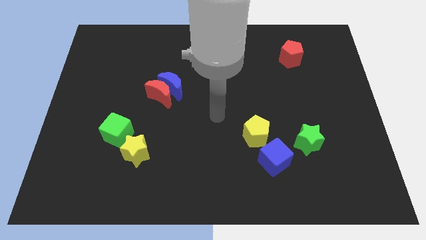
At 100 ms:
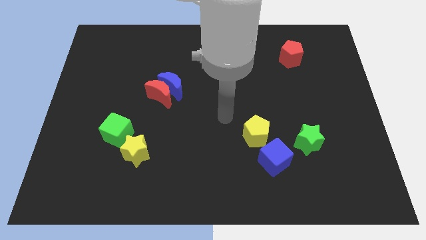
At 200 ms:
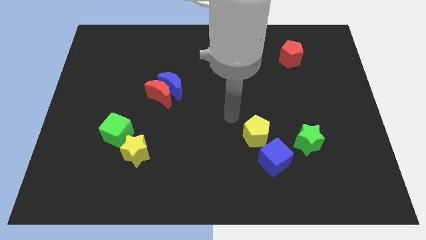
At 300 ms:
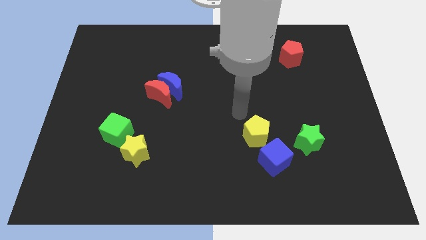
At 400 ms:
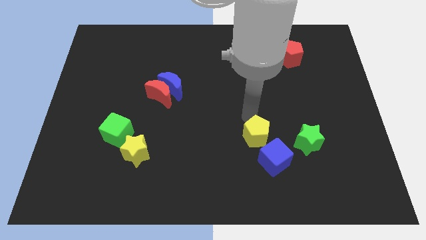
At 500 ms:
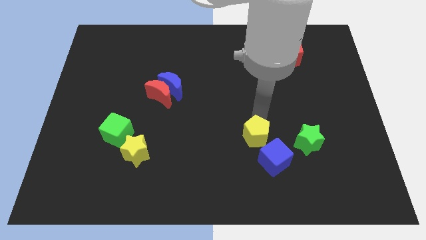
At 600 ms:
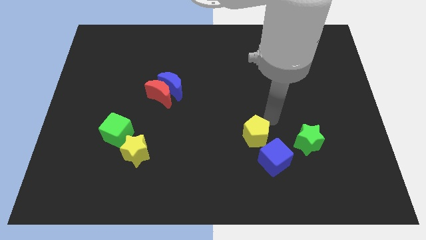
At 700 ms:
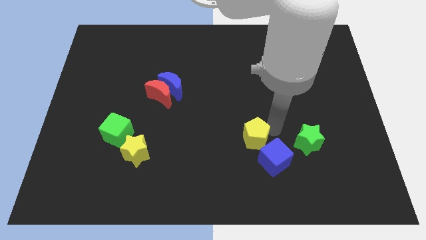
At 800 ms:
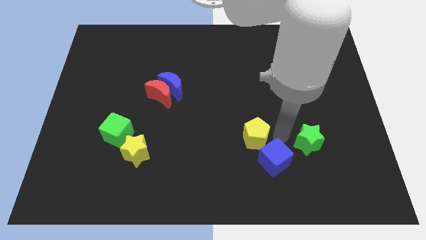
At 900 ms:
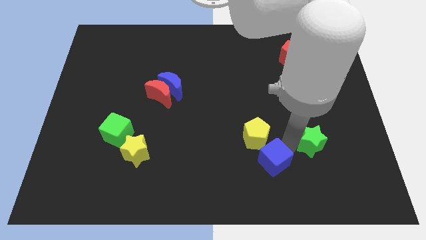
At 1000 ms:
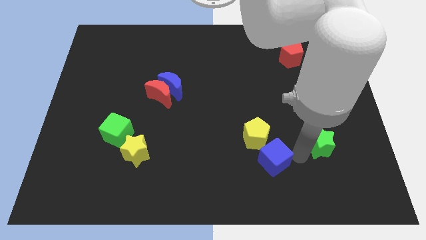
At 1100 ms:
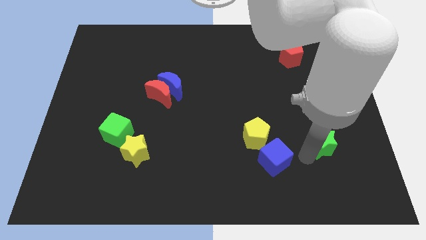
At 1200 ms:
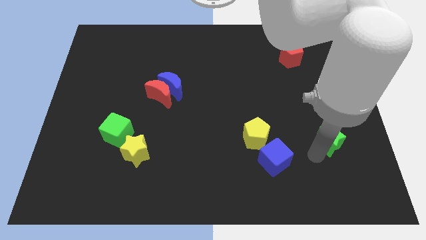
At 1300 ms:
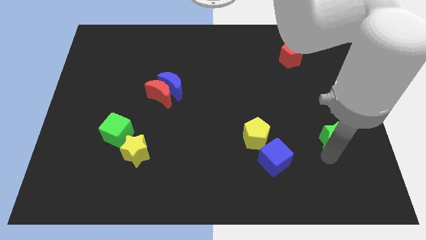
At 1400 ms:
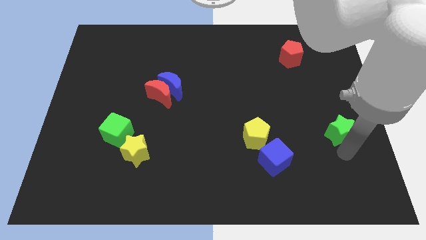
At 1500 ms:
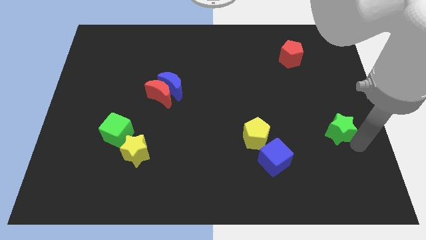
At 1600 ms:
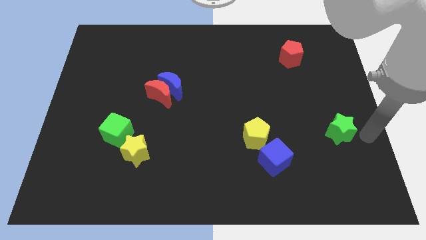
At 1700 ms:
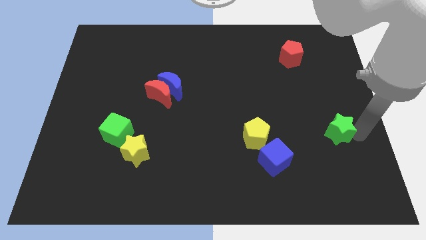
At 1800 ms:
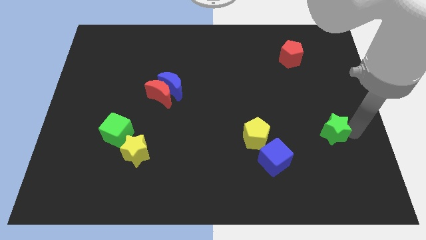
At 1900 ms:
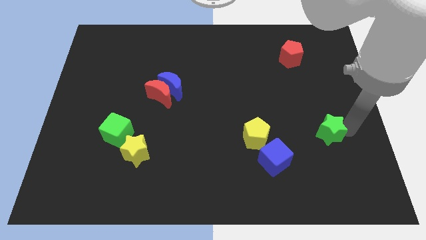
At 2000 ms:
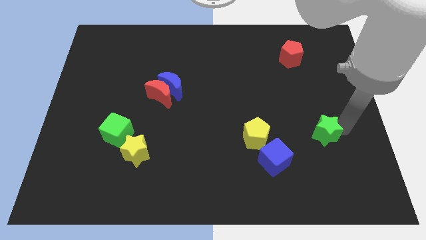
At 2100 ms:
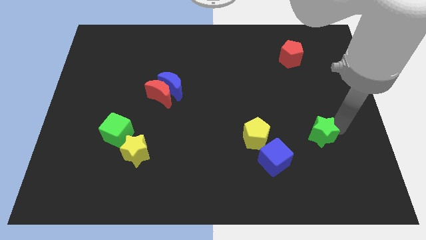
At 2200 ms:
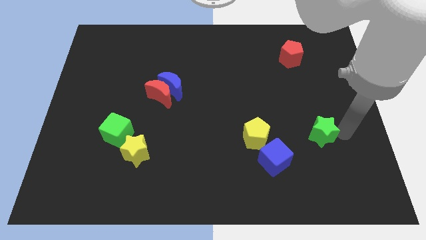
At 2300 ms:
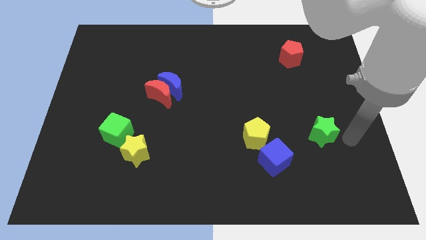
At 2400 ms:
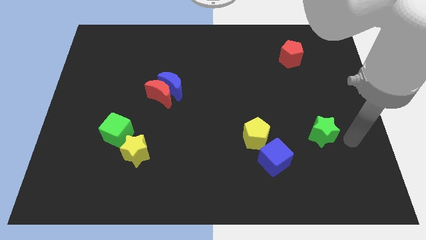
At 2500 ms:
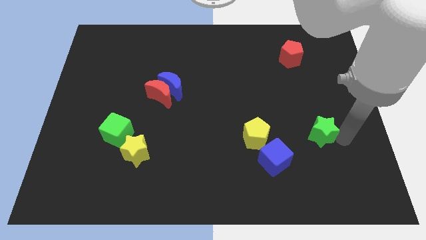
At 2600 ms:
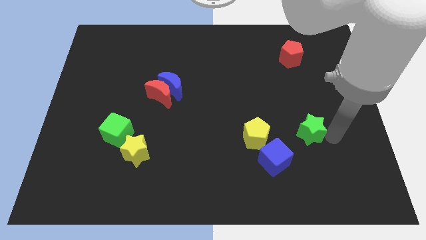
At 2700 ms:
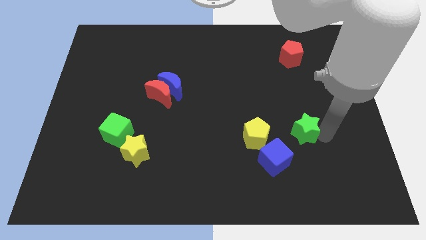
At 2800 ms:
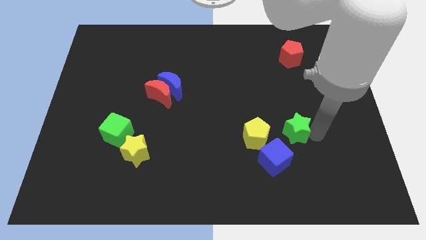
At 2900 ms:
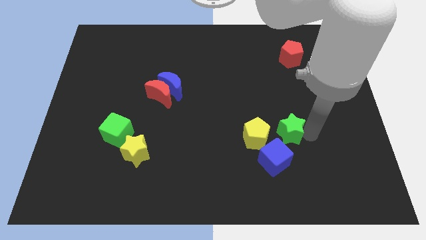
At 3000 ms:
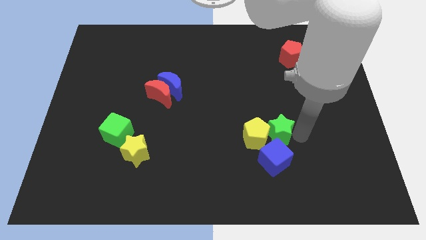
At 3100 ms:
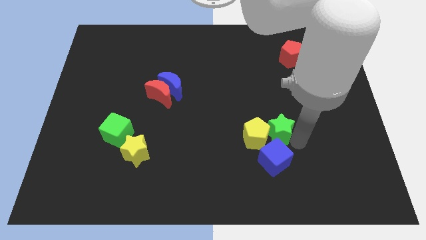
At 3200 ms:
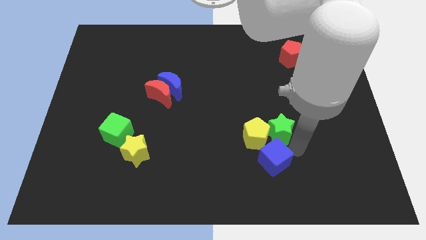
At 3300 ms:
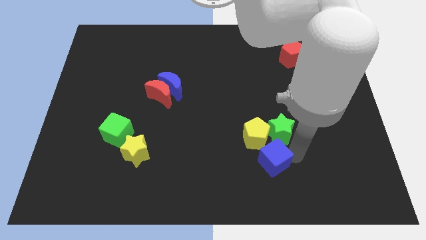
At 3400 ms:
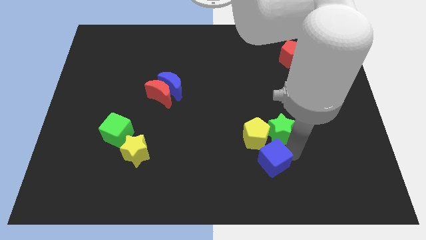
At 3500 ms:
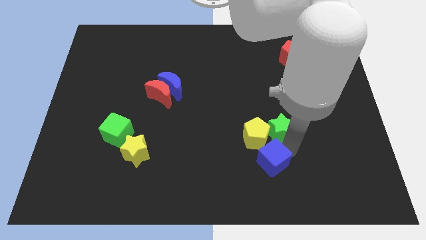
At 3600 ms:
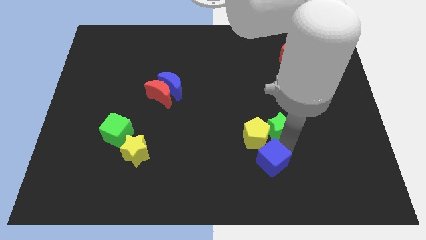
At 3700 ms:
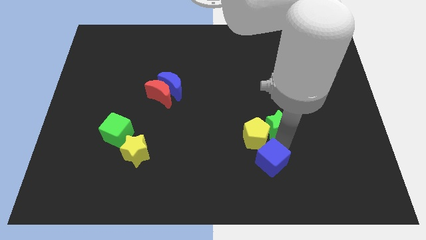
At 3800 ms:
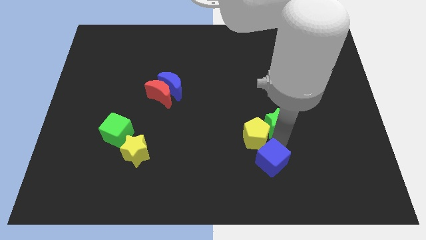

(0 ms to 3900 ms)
move the green star diagonally up and left slightly

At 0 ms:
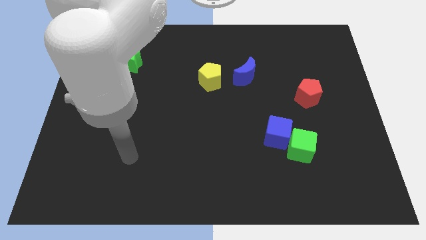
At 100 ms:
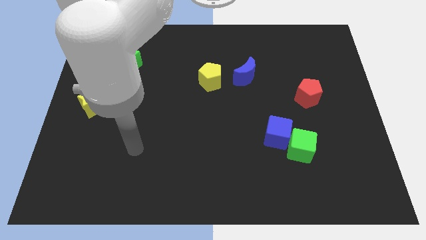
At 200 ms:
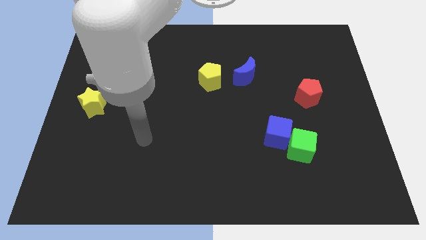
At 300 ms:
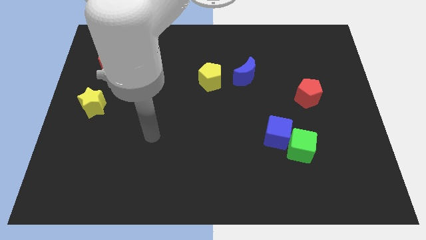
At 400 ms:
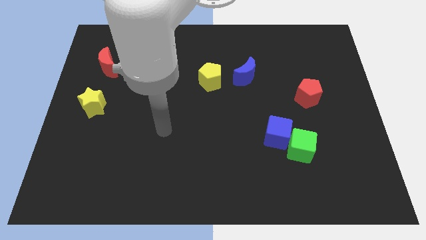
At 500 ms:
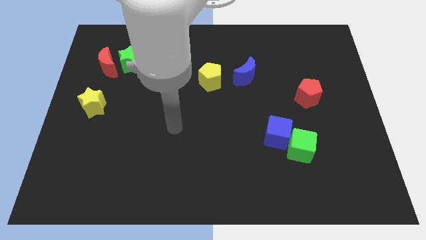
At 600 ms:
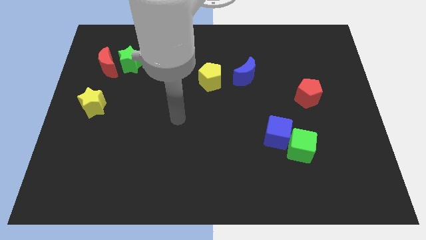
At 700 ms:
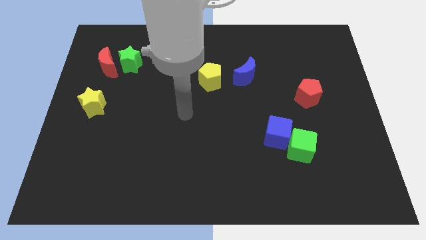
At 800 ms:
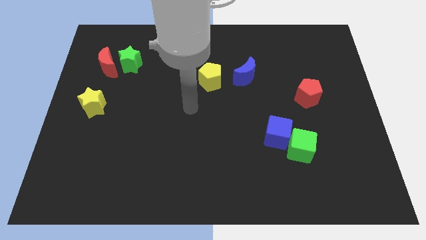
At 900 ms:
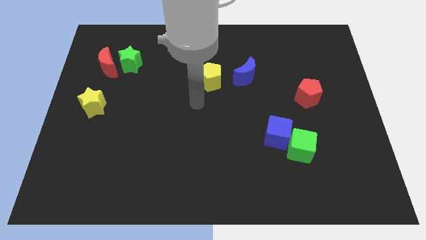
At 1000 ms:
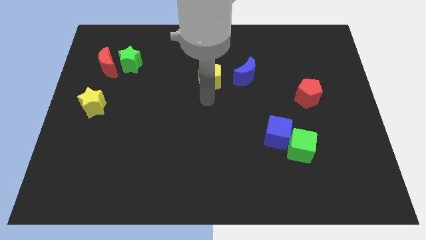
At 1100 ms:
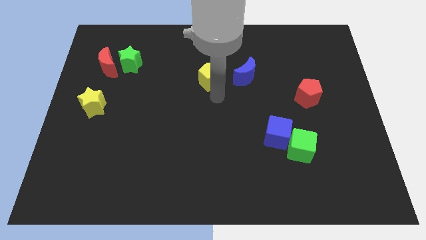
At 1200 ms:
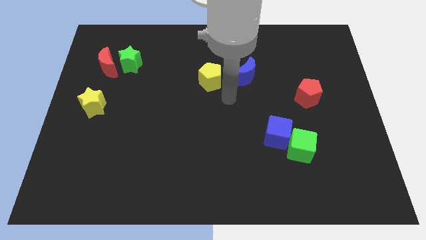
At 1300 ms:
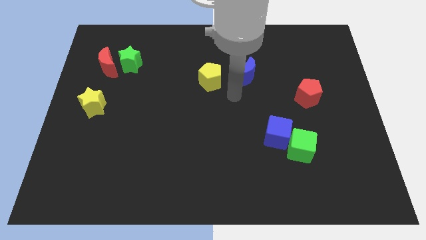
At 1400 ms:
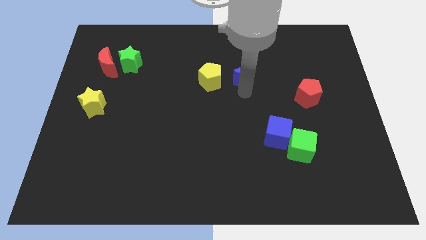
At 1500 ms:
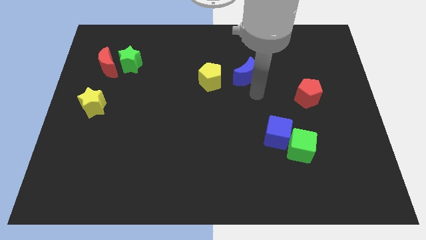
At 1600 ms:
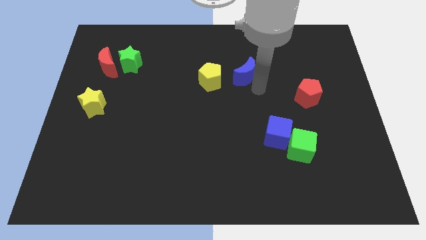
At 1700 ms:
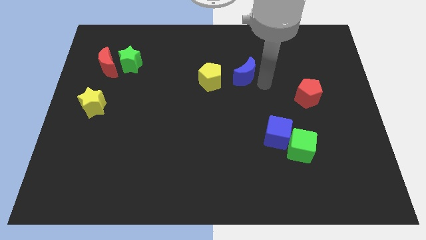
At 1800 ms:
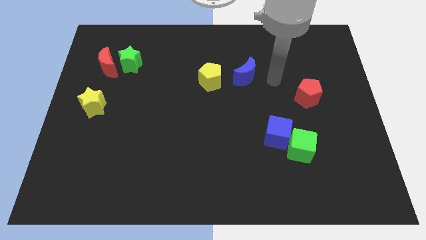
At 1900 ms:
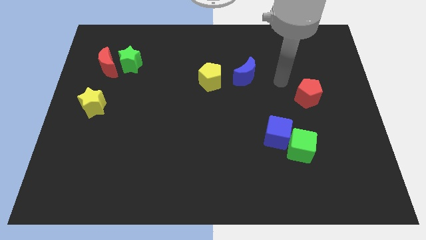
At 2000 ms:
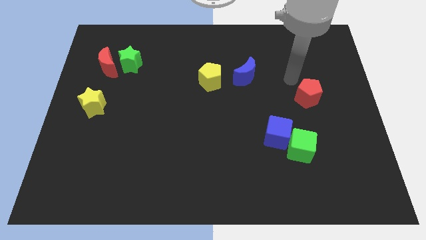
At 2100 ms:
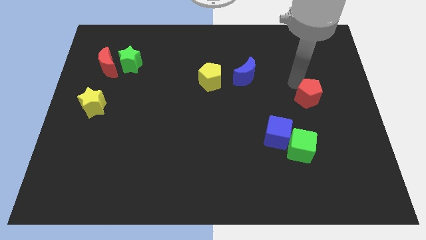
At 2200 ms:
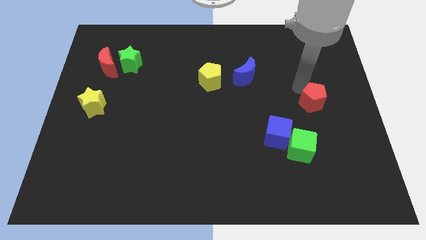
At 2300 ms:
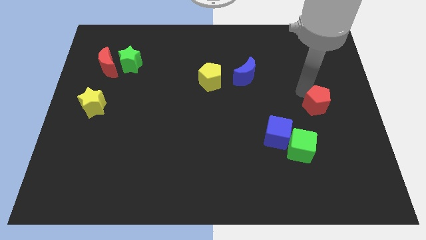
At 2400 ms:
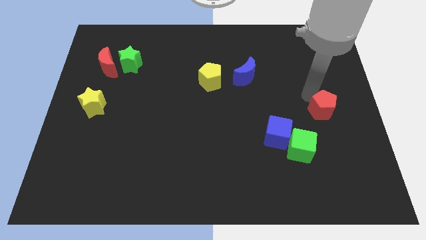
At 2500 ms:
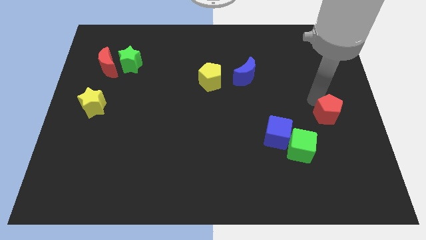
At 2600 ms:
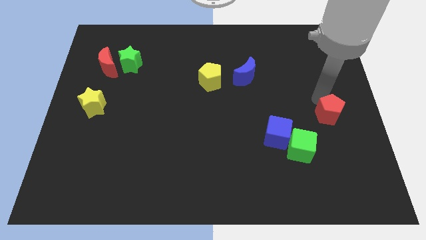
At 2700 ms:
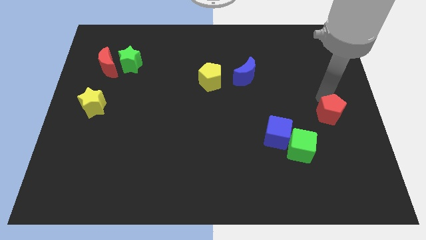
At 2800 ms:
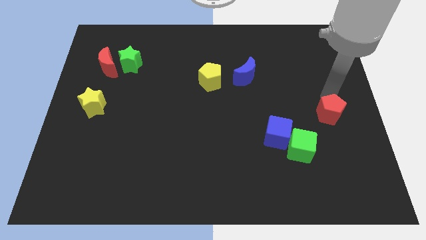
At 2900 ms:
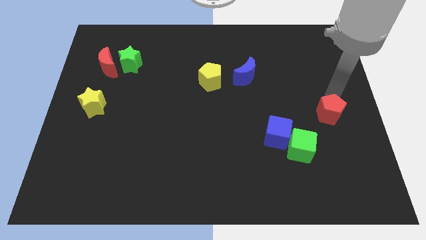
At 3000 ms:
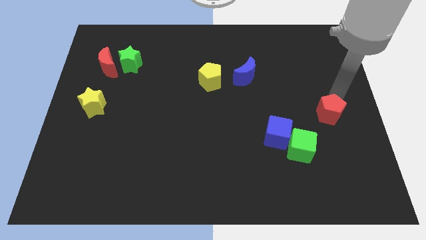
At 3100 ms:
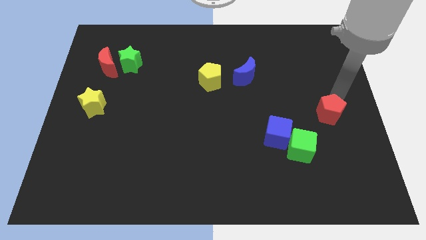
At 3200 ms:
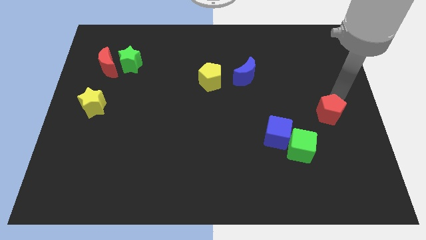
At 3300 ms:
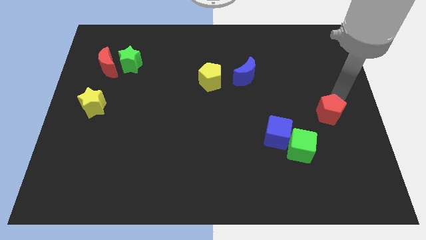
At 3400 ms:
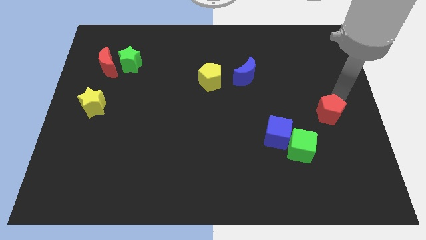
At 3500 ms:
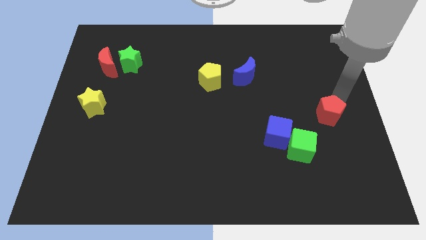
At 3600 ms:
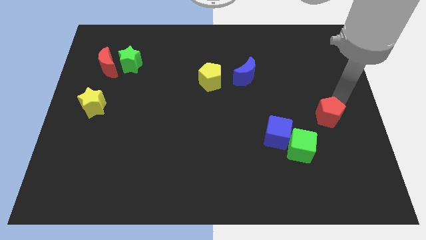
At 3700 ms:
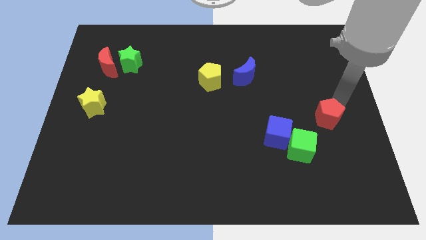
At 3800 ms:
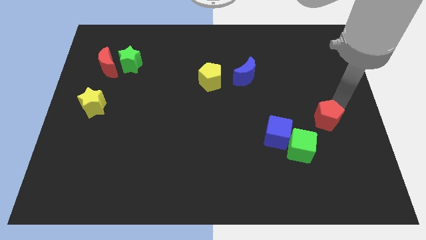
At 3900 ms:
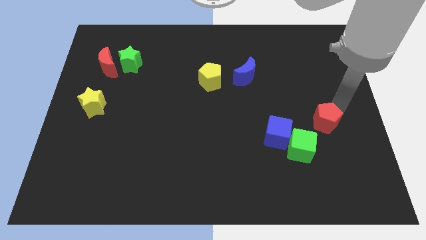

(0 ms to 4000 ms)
move the red pentagon a little down
